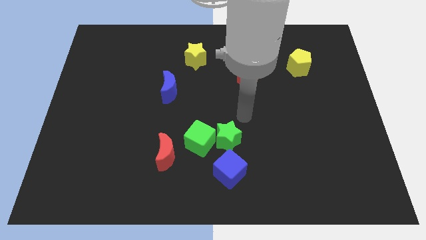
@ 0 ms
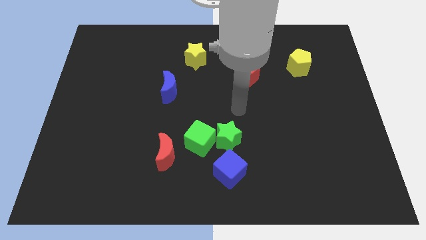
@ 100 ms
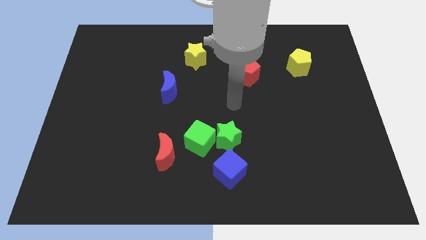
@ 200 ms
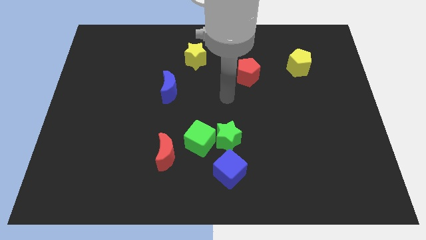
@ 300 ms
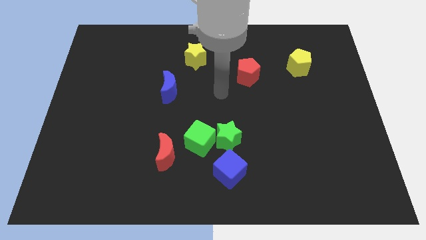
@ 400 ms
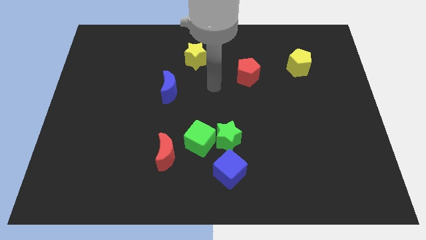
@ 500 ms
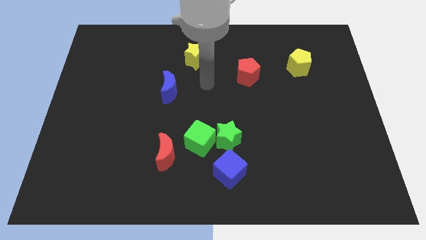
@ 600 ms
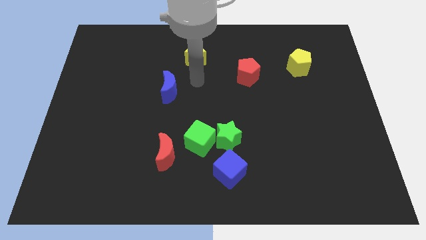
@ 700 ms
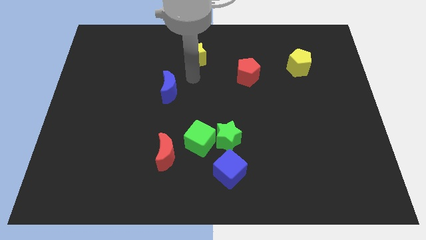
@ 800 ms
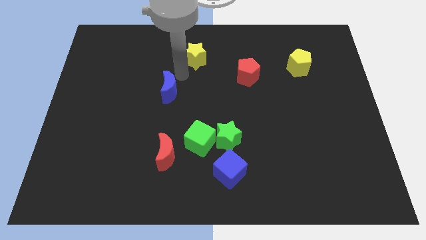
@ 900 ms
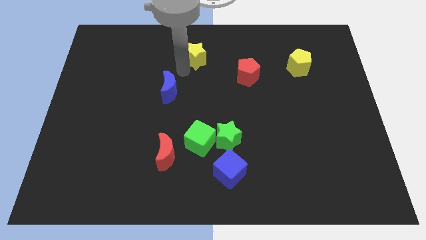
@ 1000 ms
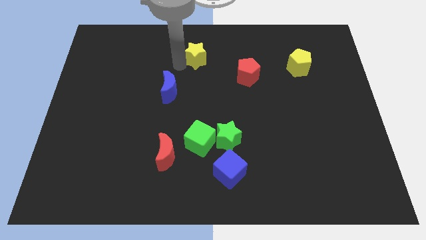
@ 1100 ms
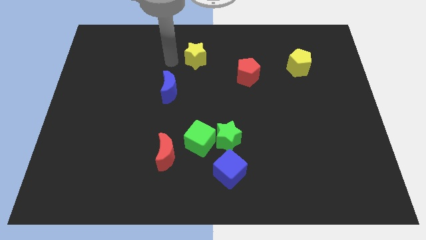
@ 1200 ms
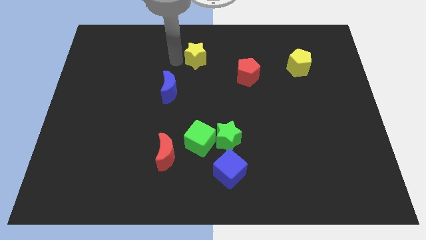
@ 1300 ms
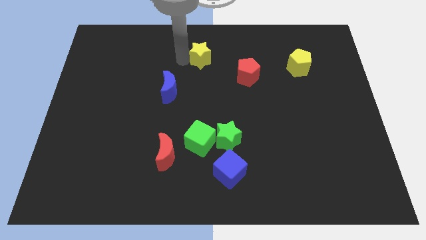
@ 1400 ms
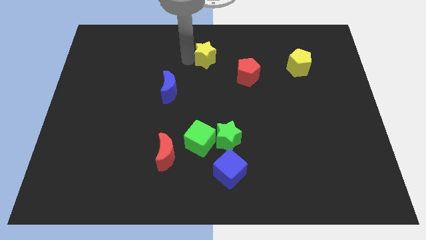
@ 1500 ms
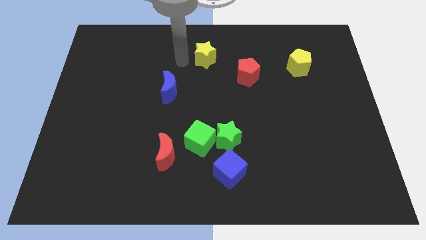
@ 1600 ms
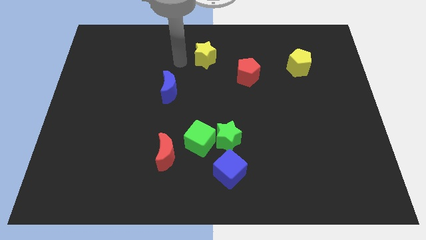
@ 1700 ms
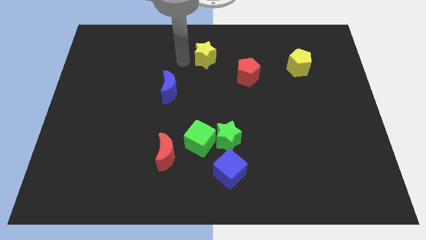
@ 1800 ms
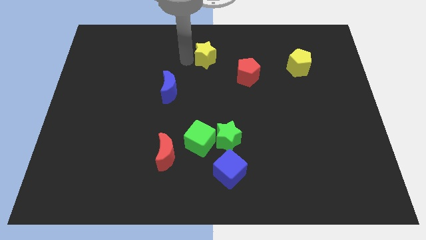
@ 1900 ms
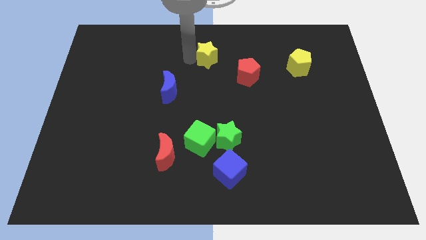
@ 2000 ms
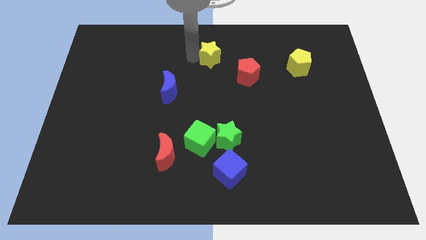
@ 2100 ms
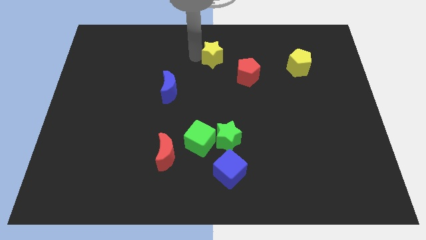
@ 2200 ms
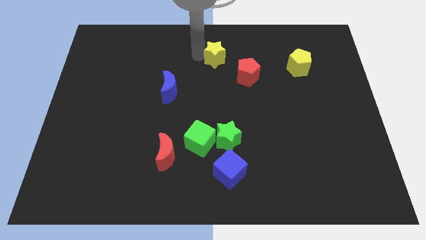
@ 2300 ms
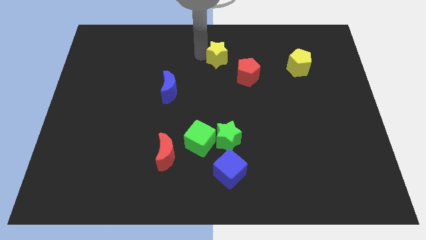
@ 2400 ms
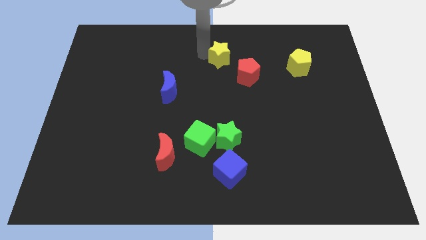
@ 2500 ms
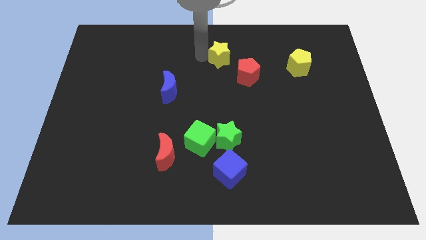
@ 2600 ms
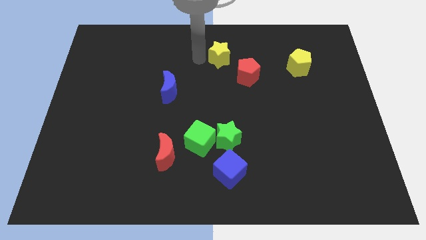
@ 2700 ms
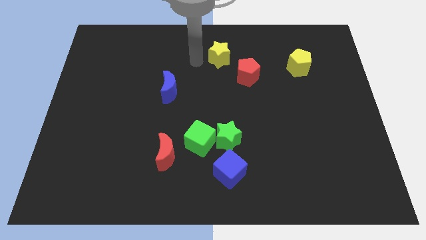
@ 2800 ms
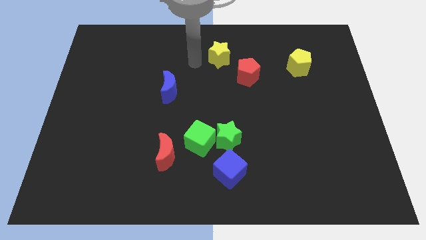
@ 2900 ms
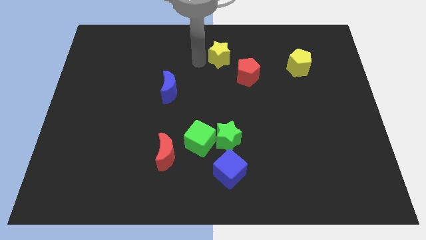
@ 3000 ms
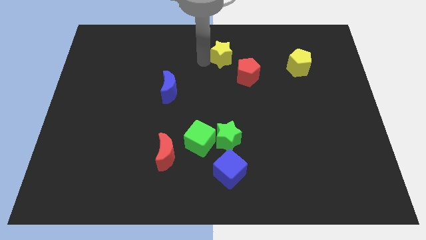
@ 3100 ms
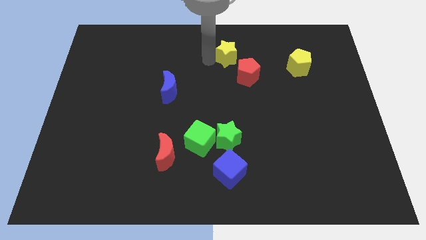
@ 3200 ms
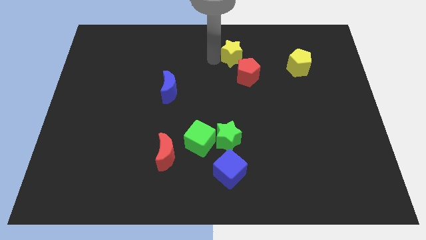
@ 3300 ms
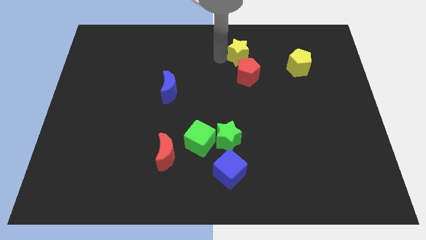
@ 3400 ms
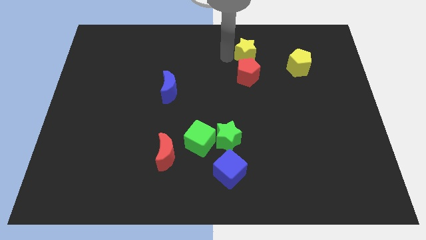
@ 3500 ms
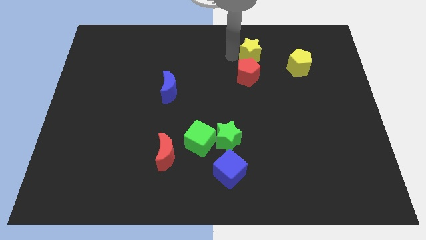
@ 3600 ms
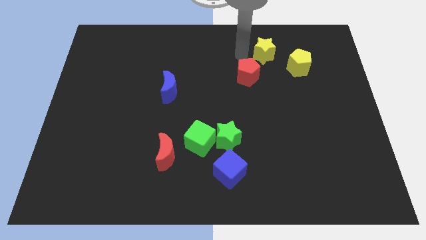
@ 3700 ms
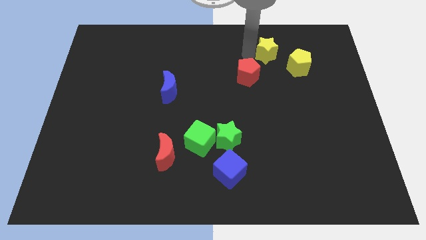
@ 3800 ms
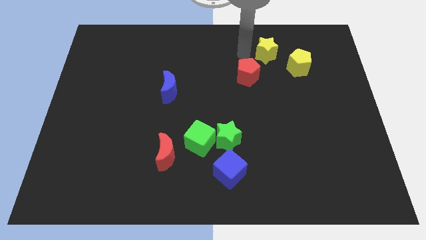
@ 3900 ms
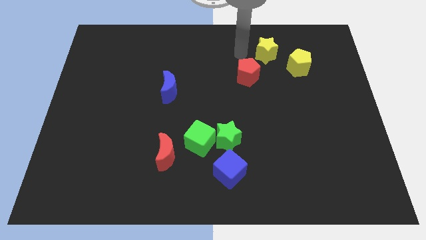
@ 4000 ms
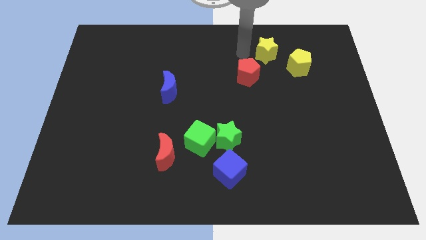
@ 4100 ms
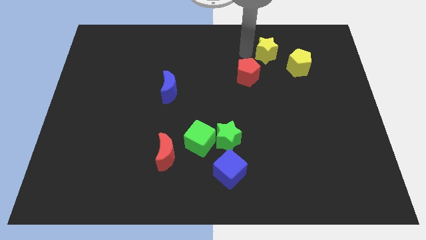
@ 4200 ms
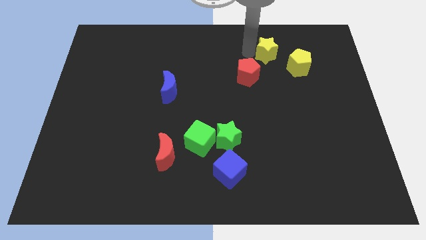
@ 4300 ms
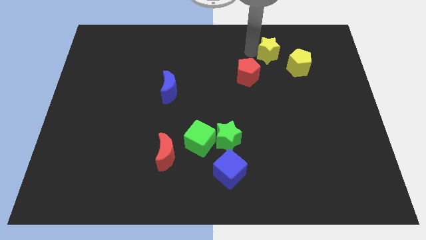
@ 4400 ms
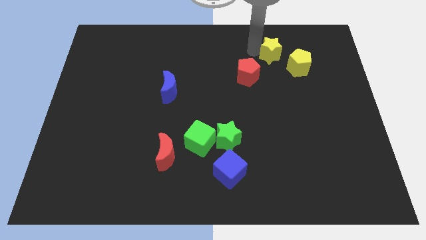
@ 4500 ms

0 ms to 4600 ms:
push the yellow star to the right

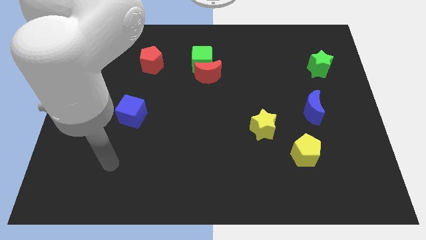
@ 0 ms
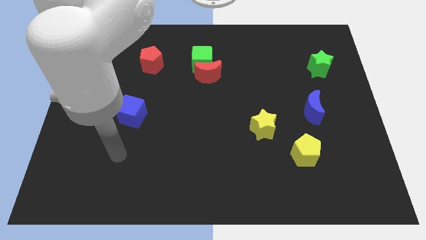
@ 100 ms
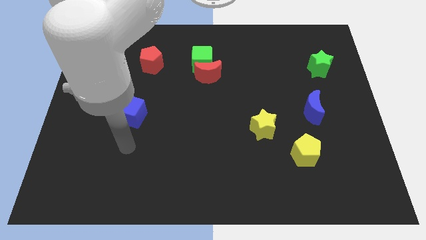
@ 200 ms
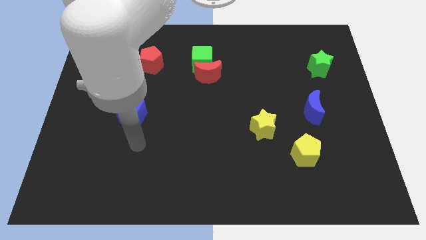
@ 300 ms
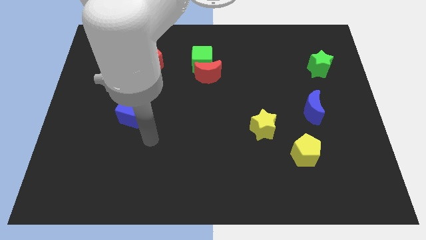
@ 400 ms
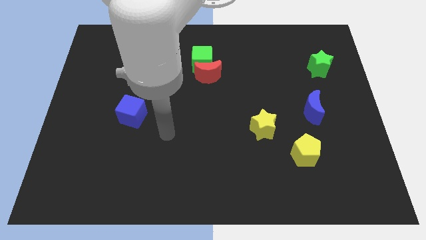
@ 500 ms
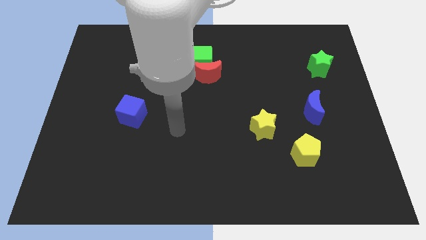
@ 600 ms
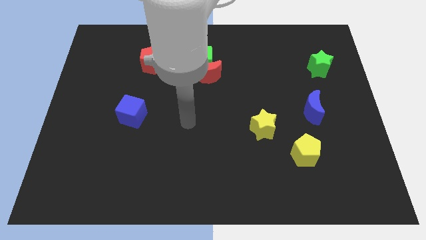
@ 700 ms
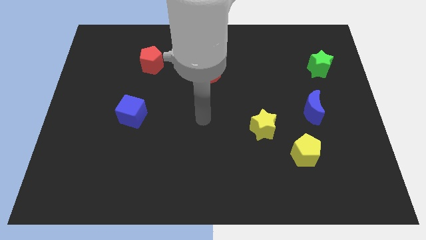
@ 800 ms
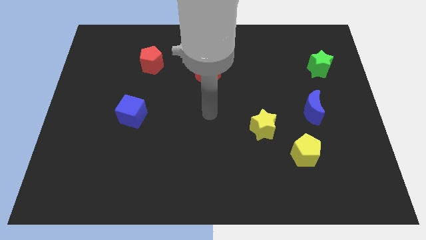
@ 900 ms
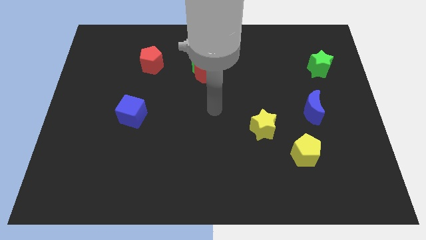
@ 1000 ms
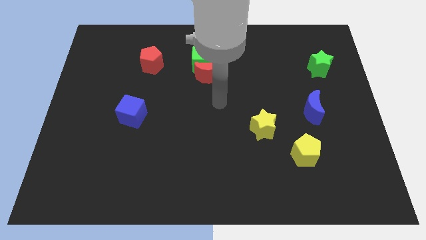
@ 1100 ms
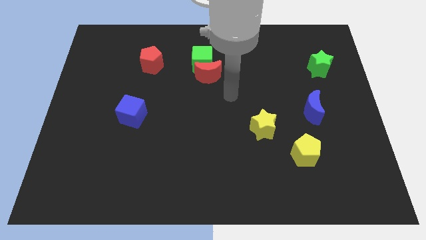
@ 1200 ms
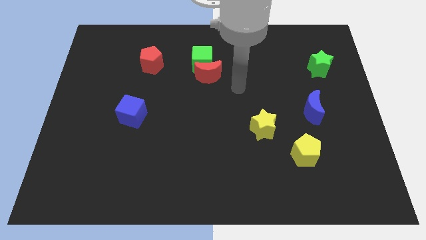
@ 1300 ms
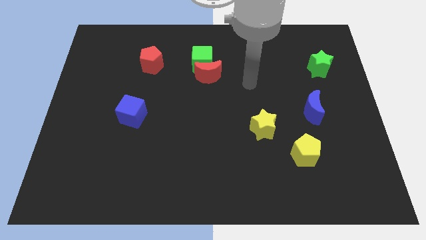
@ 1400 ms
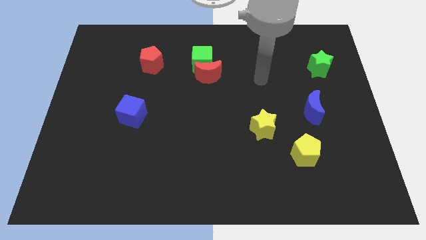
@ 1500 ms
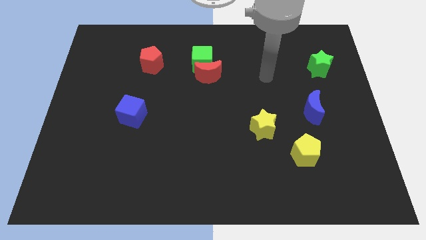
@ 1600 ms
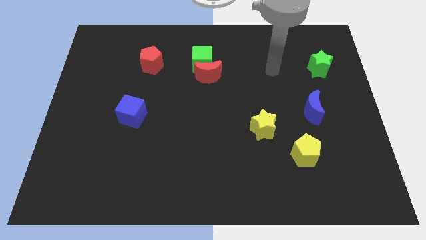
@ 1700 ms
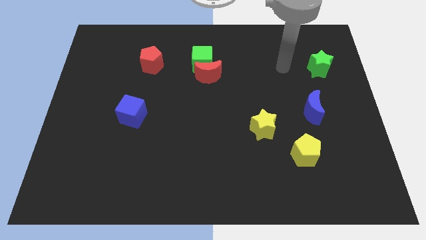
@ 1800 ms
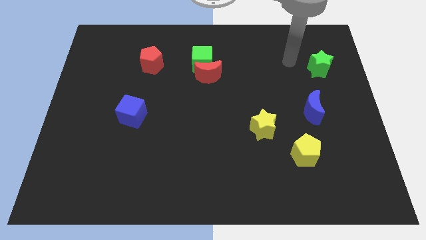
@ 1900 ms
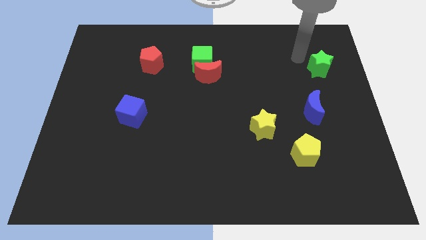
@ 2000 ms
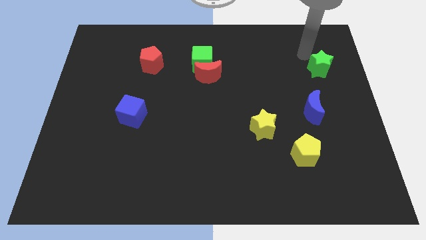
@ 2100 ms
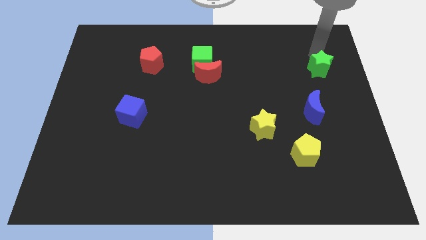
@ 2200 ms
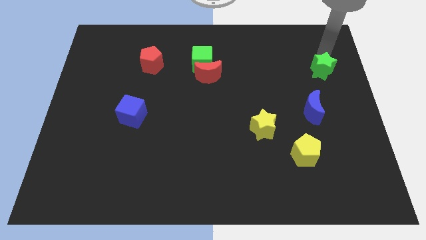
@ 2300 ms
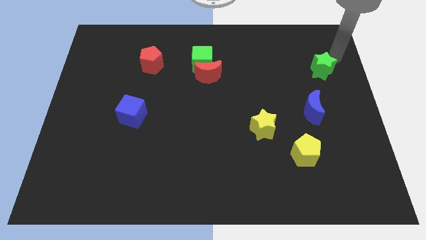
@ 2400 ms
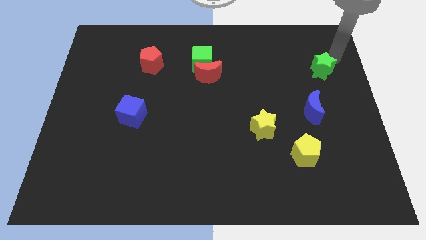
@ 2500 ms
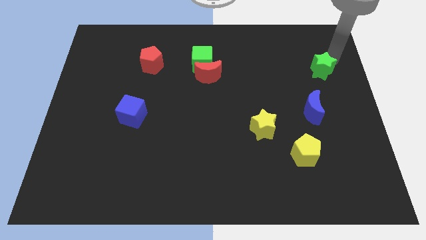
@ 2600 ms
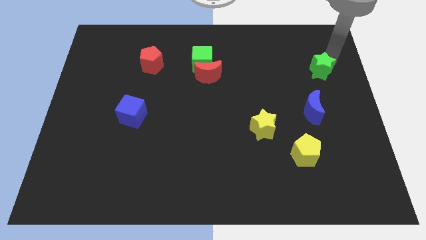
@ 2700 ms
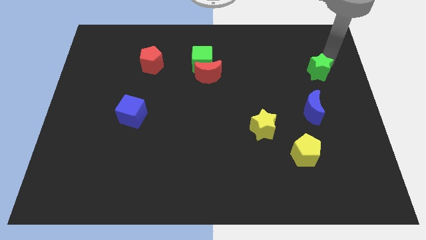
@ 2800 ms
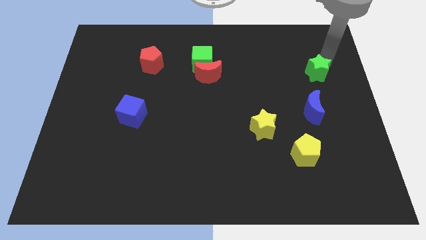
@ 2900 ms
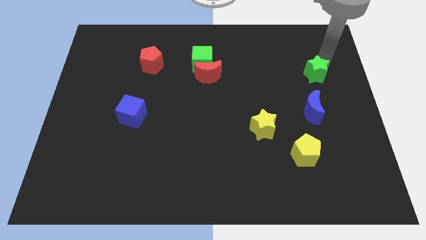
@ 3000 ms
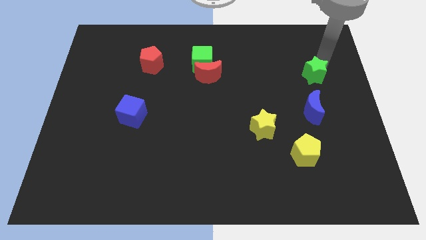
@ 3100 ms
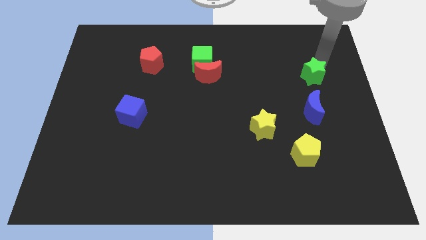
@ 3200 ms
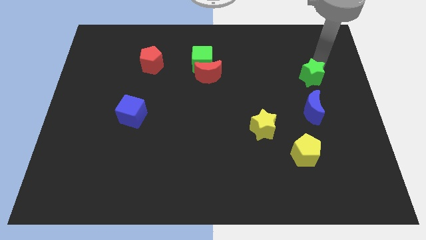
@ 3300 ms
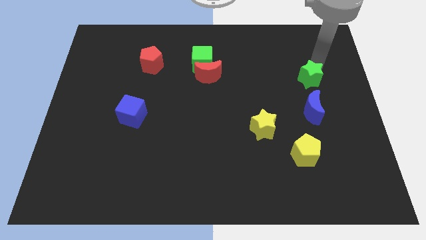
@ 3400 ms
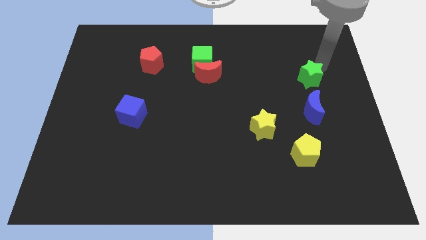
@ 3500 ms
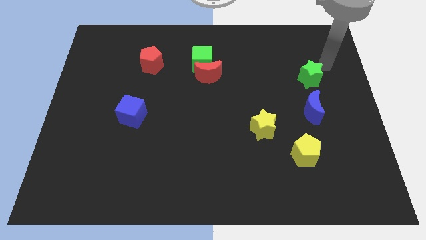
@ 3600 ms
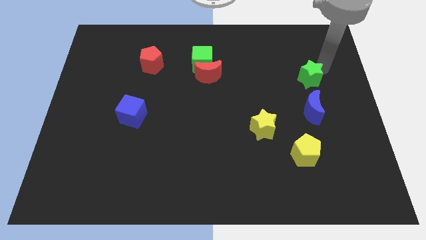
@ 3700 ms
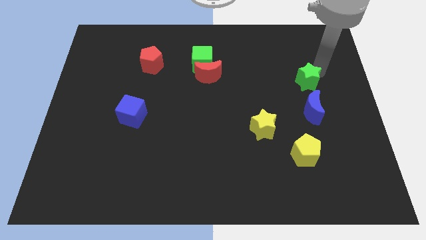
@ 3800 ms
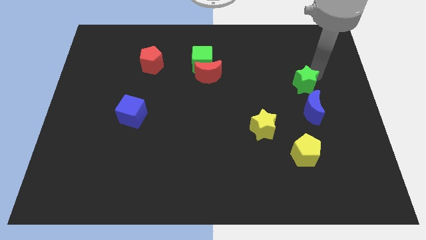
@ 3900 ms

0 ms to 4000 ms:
move the green star a little diagonally downwards and left
